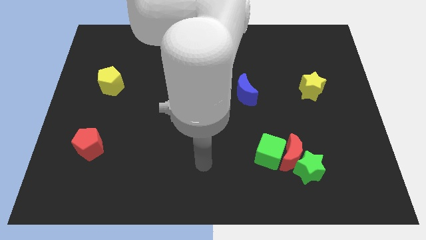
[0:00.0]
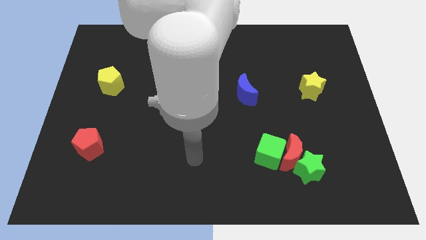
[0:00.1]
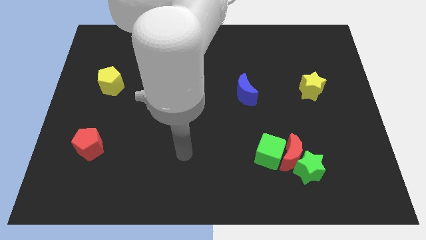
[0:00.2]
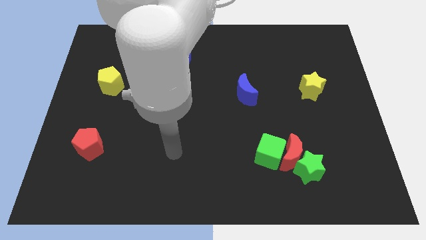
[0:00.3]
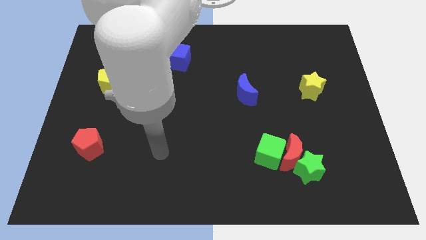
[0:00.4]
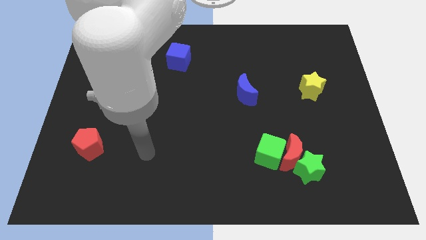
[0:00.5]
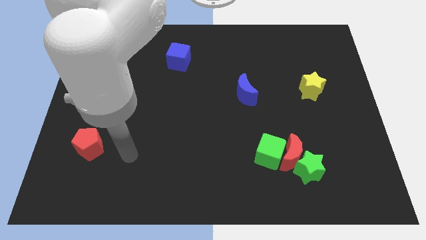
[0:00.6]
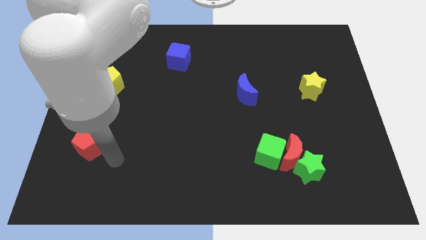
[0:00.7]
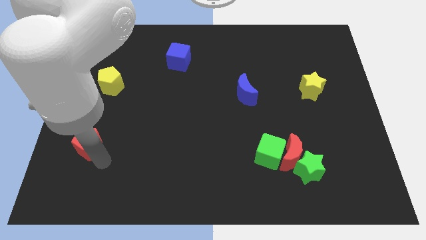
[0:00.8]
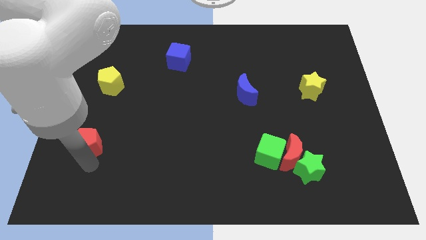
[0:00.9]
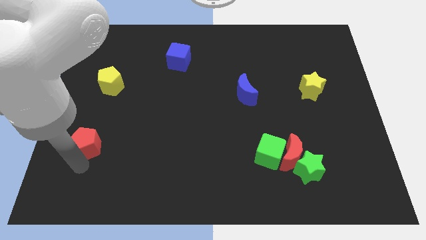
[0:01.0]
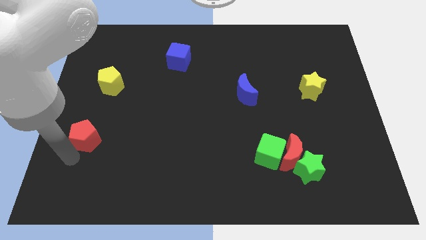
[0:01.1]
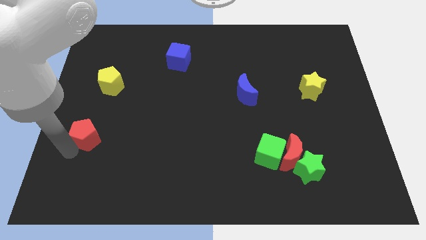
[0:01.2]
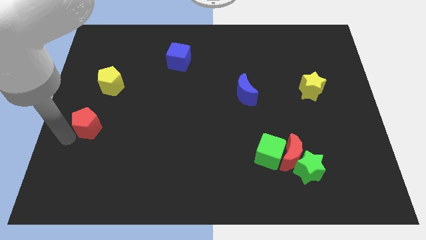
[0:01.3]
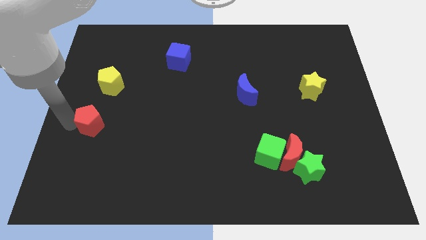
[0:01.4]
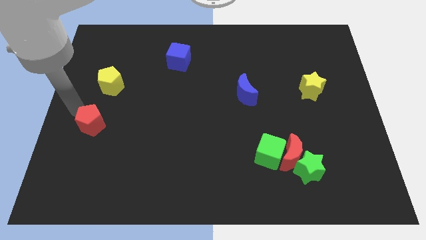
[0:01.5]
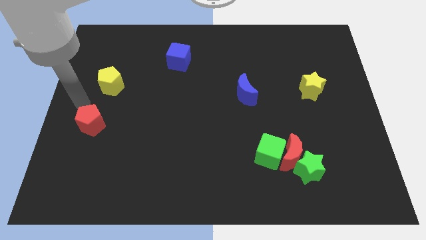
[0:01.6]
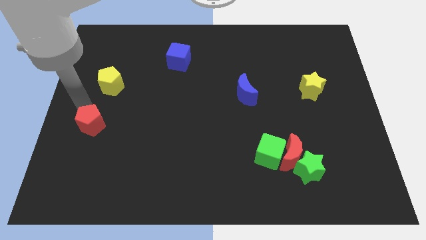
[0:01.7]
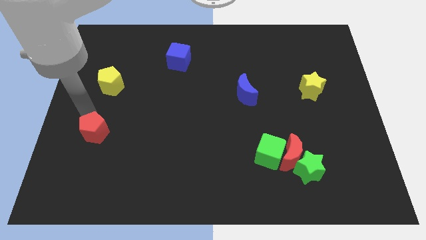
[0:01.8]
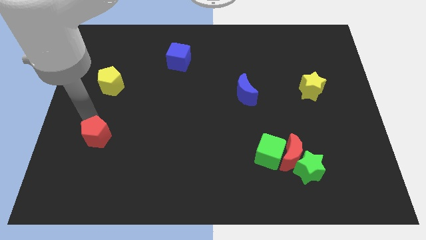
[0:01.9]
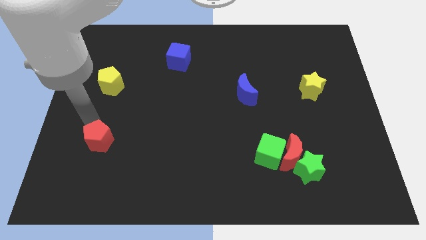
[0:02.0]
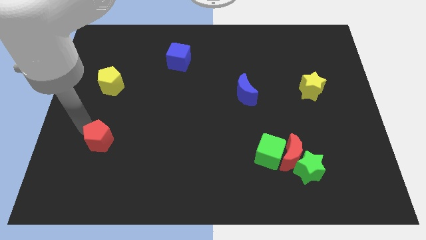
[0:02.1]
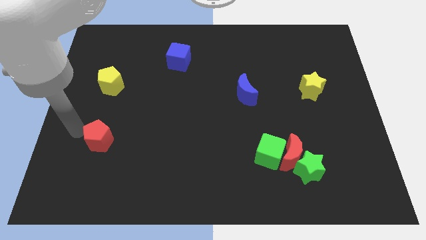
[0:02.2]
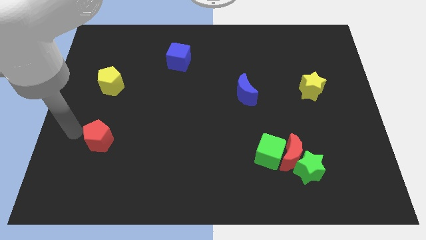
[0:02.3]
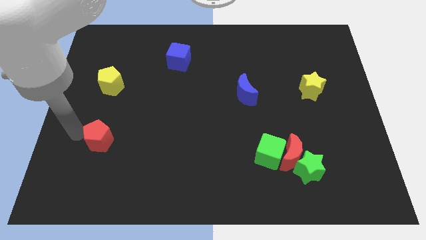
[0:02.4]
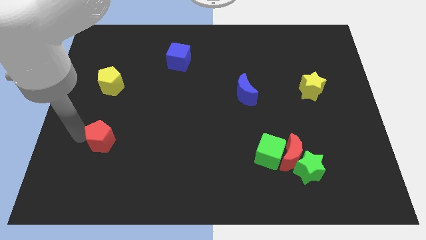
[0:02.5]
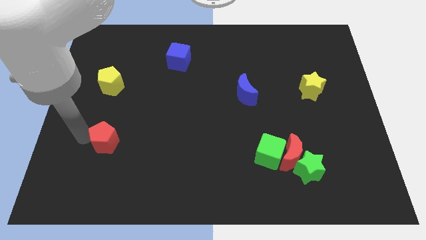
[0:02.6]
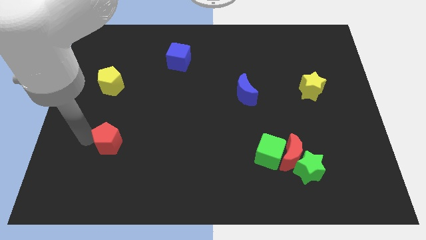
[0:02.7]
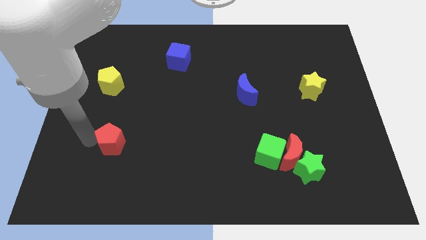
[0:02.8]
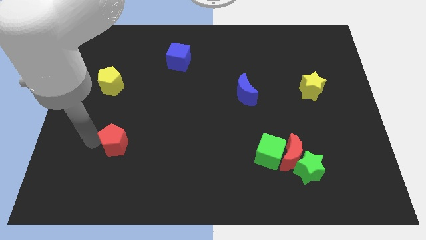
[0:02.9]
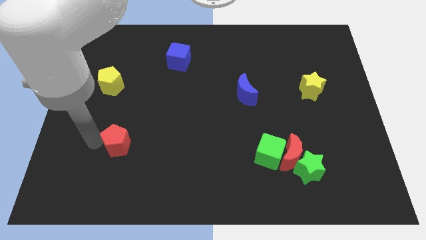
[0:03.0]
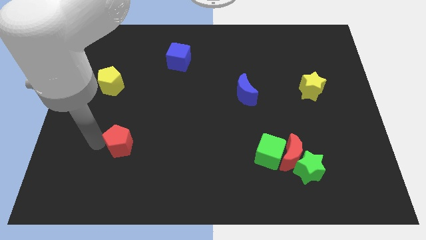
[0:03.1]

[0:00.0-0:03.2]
move the red pentagon to the right somewhat

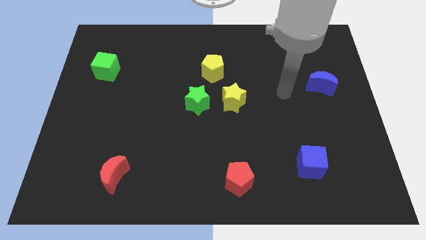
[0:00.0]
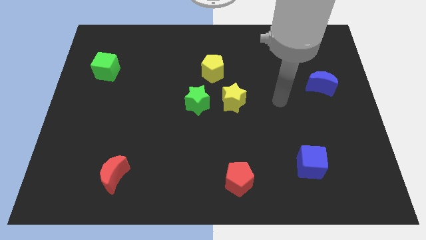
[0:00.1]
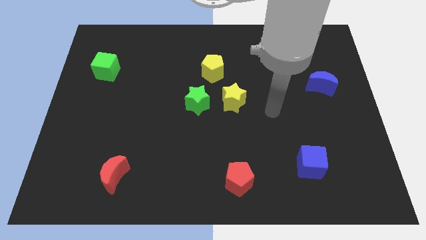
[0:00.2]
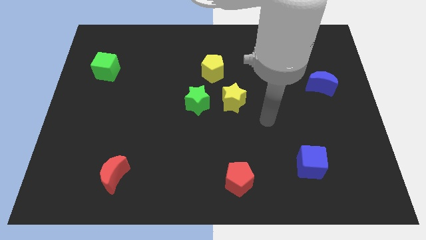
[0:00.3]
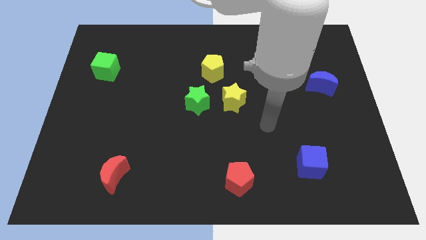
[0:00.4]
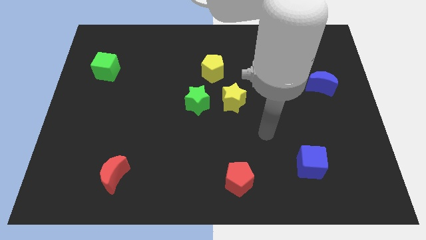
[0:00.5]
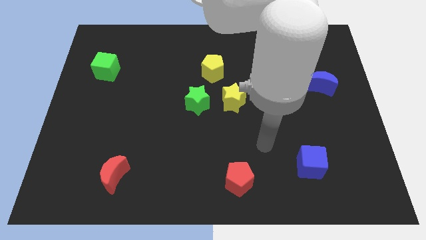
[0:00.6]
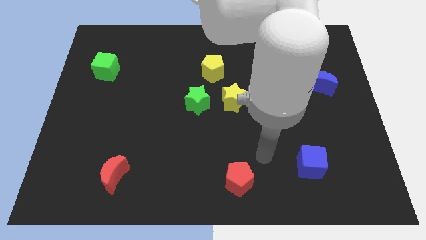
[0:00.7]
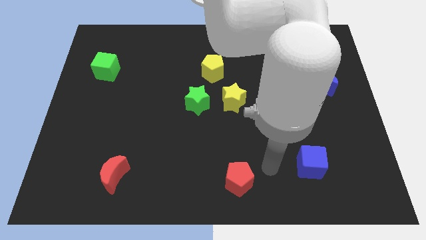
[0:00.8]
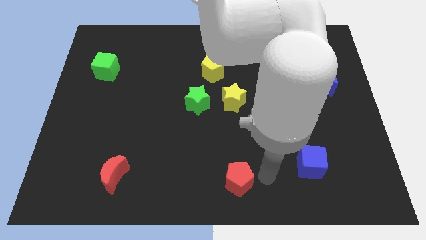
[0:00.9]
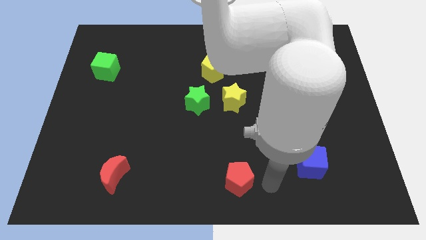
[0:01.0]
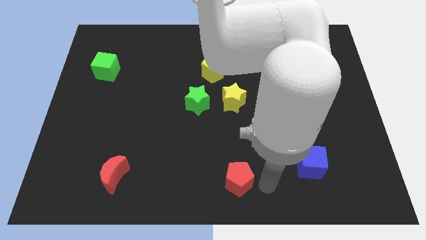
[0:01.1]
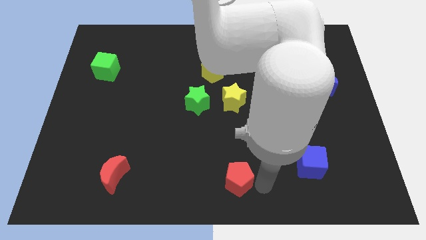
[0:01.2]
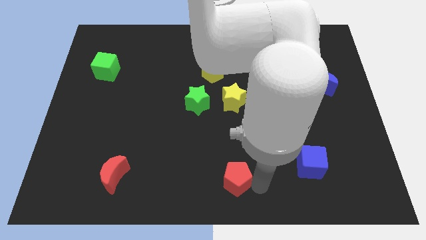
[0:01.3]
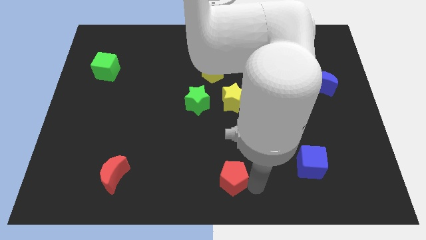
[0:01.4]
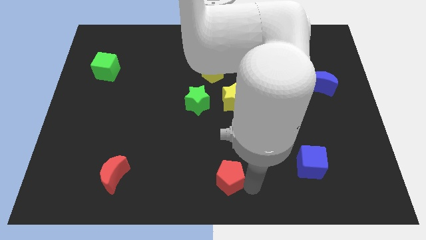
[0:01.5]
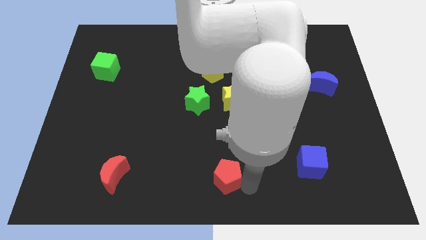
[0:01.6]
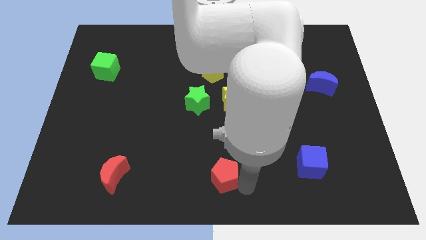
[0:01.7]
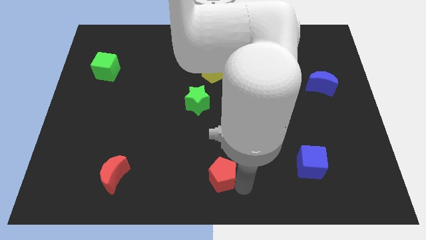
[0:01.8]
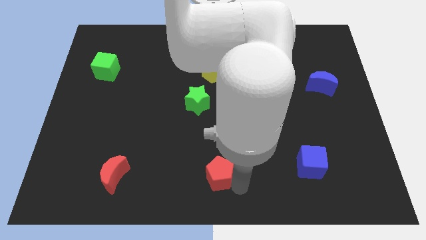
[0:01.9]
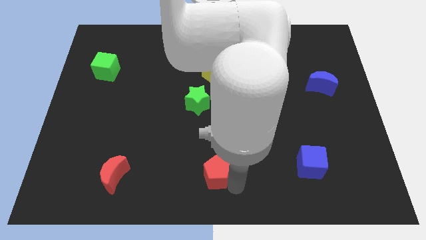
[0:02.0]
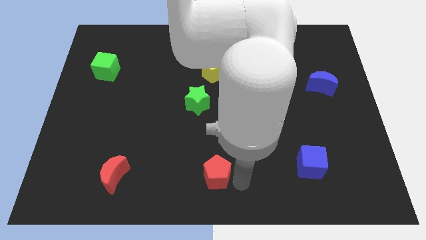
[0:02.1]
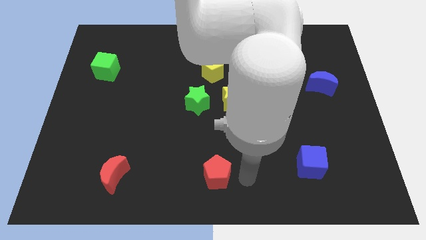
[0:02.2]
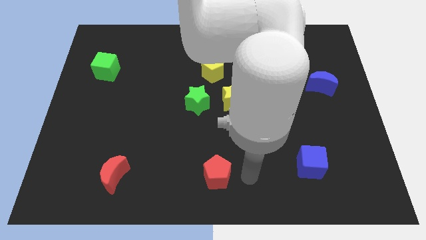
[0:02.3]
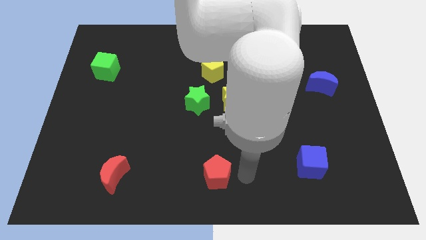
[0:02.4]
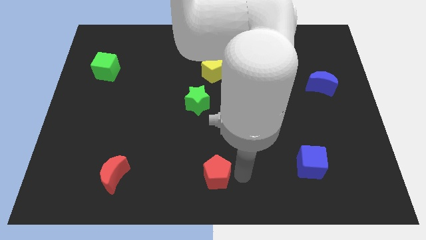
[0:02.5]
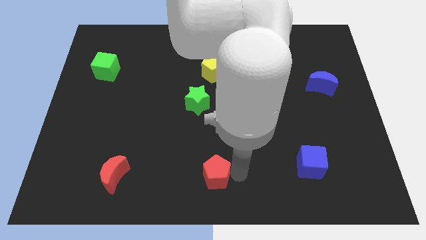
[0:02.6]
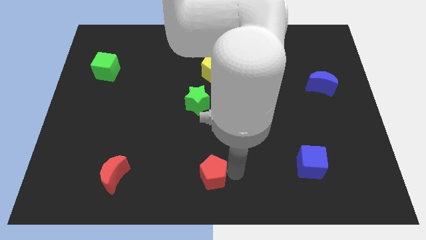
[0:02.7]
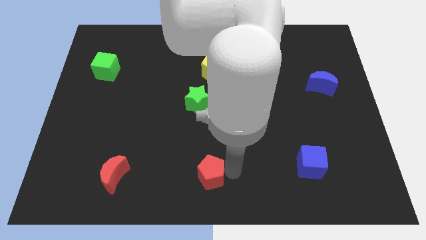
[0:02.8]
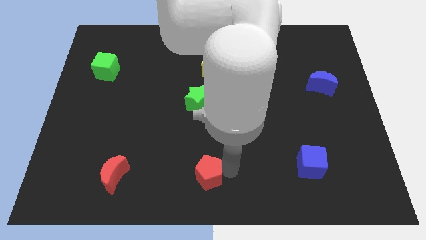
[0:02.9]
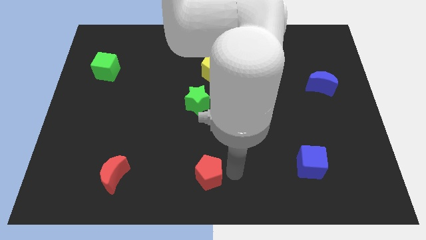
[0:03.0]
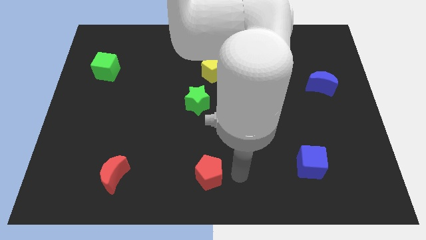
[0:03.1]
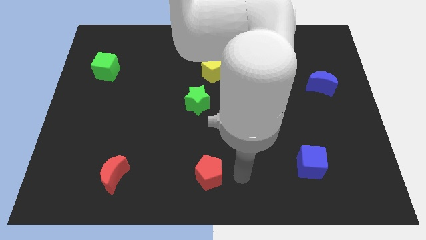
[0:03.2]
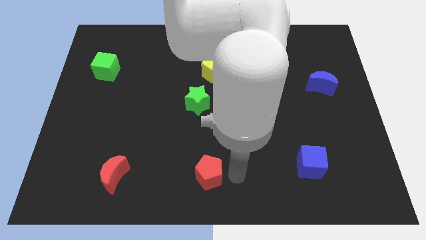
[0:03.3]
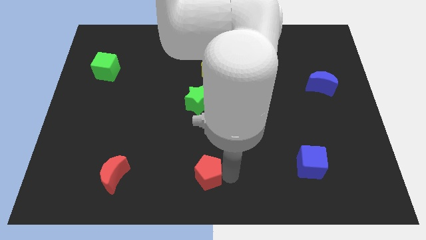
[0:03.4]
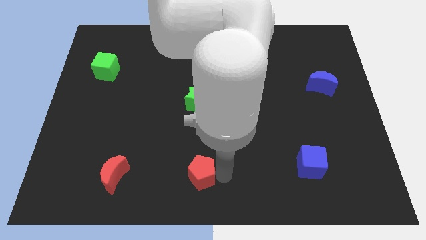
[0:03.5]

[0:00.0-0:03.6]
slide the red pentagon left slightly

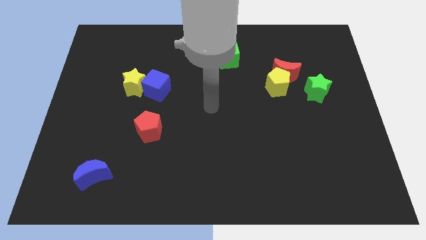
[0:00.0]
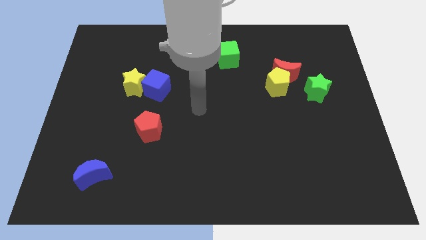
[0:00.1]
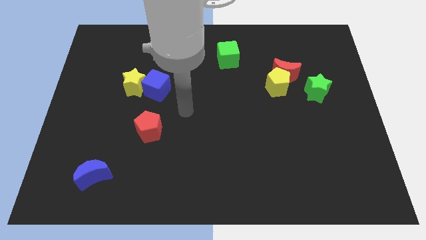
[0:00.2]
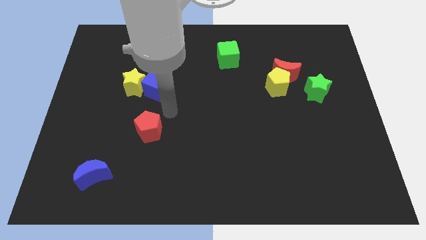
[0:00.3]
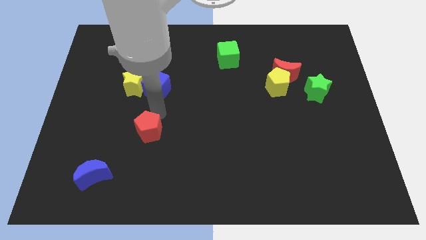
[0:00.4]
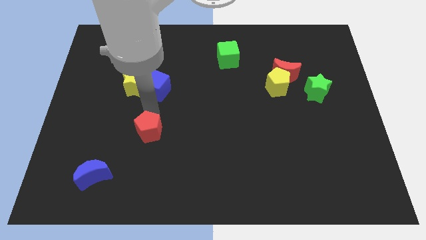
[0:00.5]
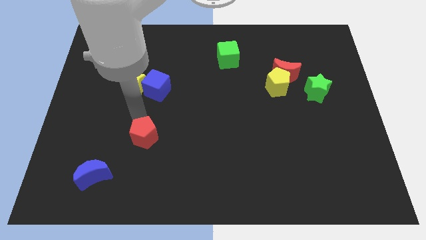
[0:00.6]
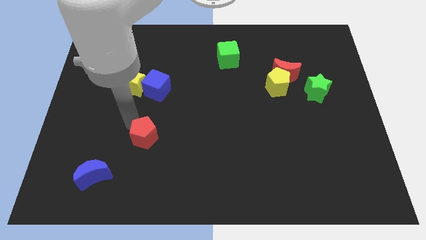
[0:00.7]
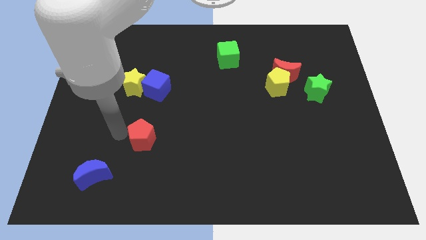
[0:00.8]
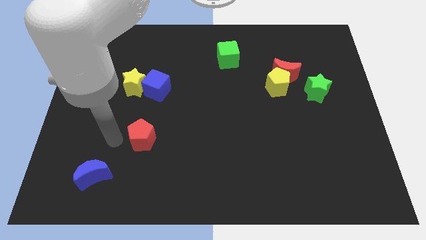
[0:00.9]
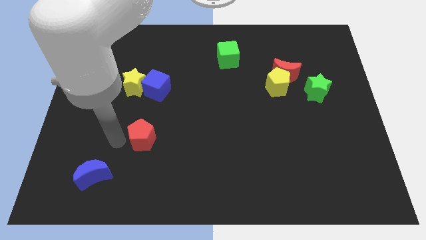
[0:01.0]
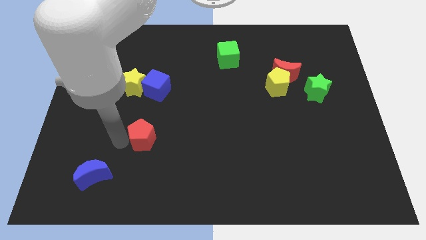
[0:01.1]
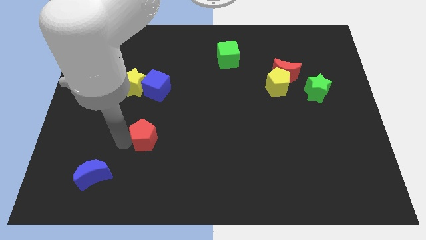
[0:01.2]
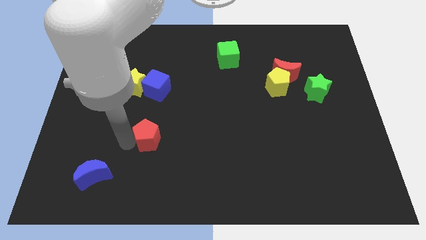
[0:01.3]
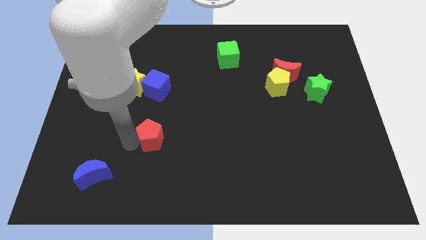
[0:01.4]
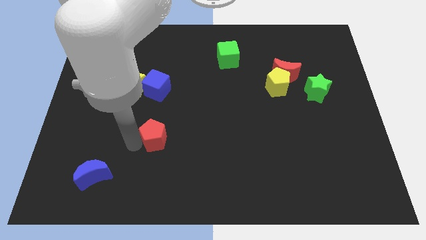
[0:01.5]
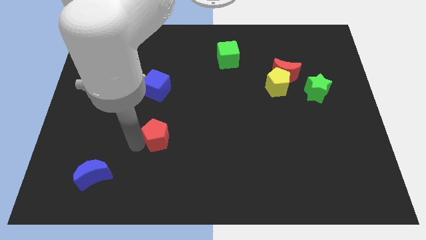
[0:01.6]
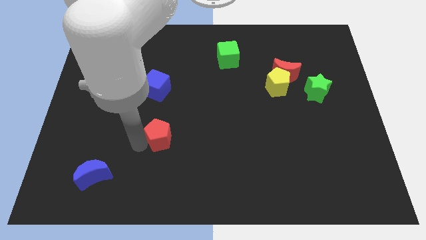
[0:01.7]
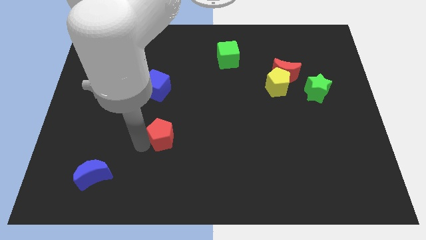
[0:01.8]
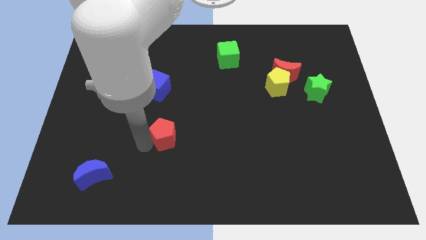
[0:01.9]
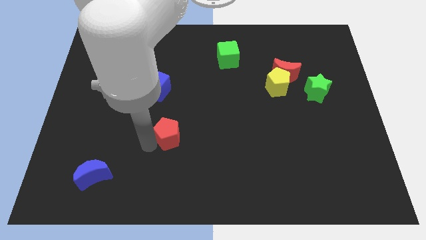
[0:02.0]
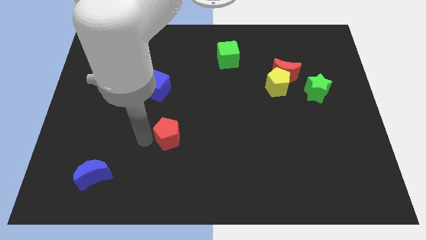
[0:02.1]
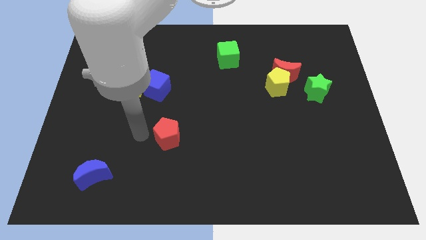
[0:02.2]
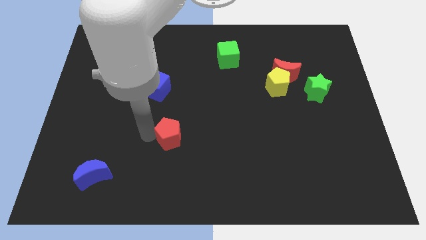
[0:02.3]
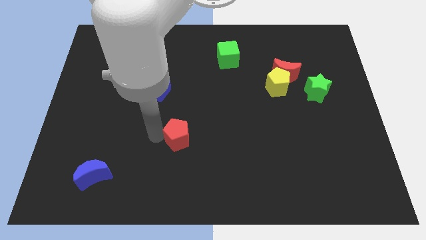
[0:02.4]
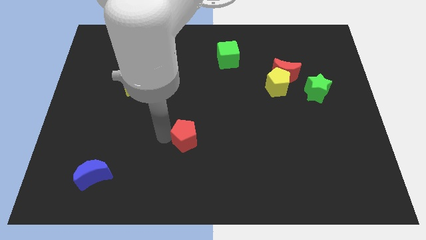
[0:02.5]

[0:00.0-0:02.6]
slightly push the red pentagon right
